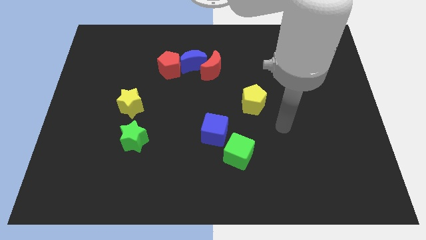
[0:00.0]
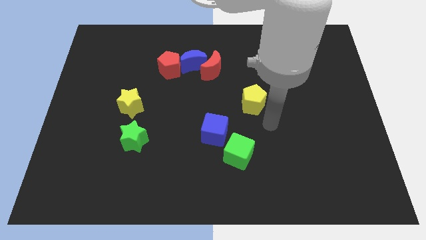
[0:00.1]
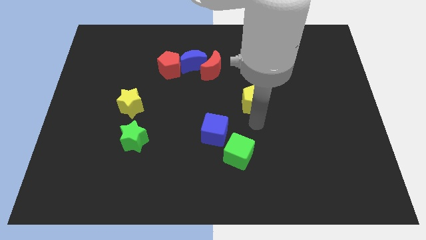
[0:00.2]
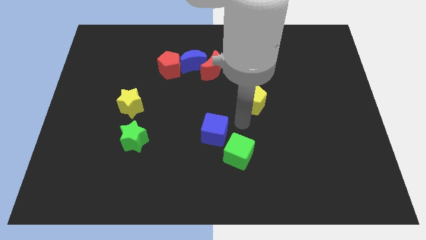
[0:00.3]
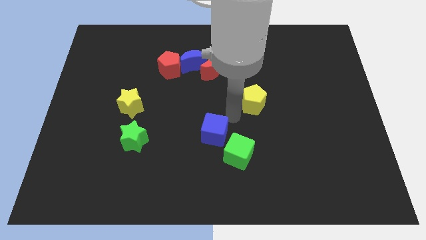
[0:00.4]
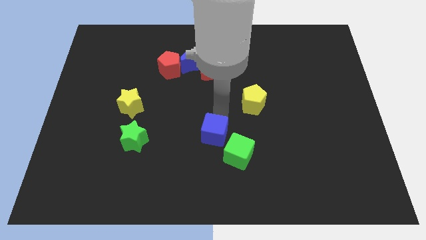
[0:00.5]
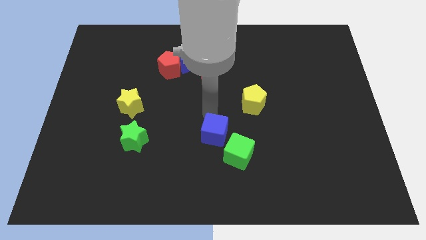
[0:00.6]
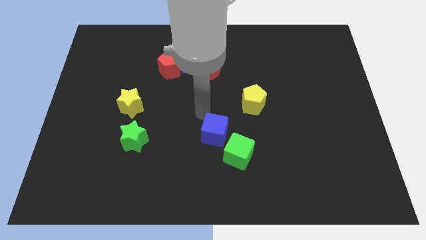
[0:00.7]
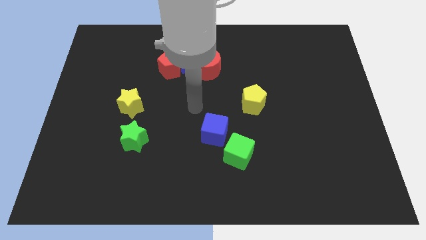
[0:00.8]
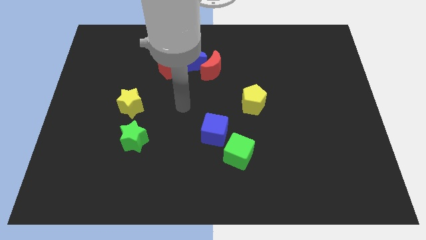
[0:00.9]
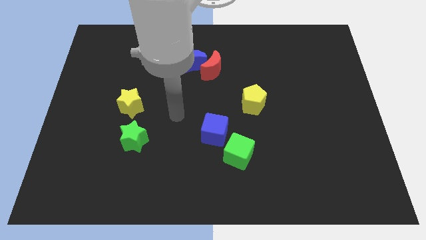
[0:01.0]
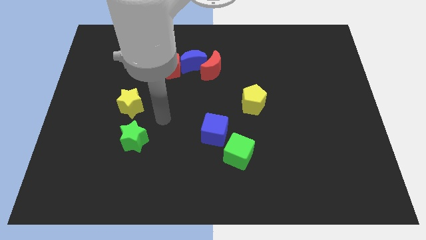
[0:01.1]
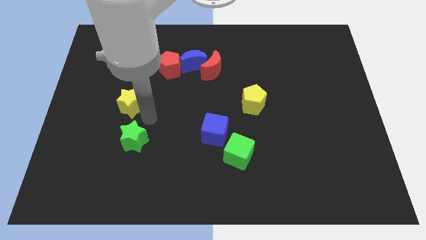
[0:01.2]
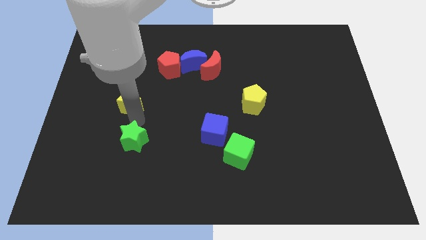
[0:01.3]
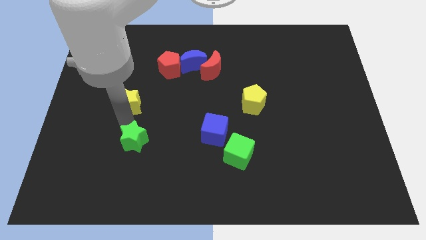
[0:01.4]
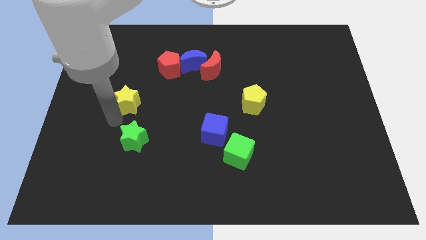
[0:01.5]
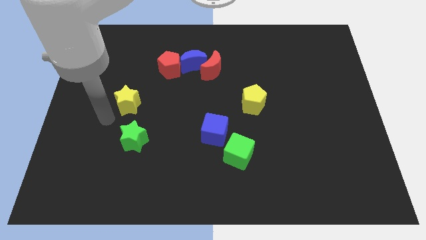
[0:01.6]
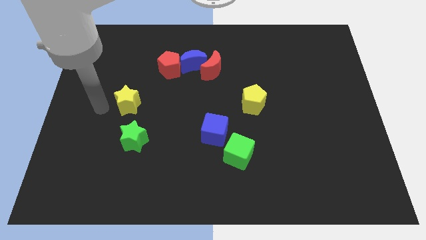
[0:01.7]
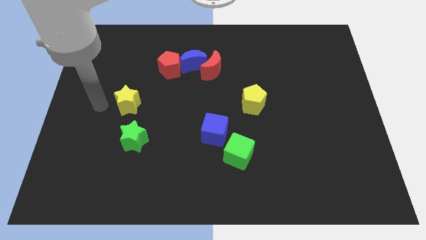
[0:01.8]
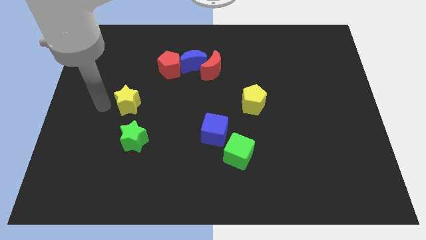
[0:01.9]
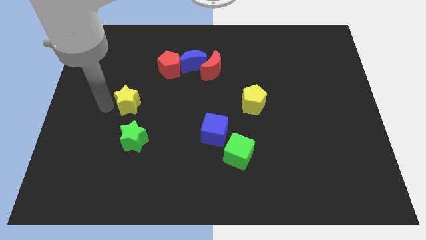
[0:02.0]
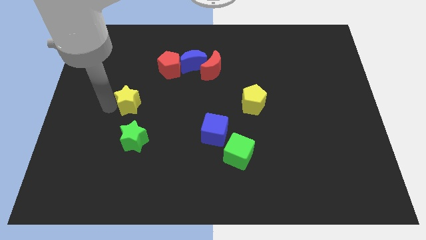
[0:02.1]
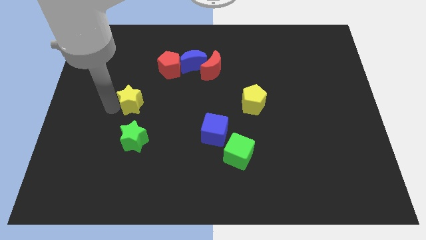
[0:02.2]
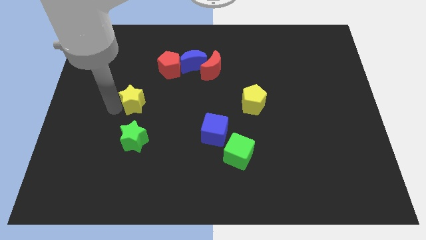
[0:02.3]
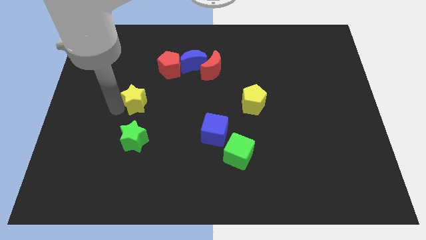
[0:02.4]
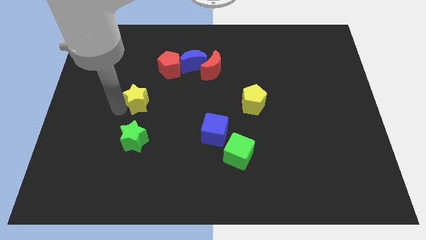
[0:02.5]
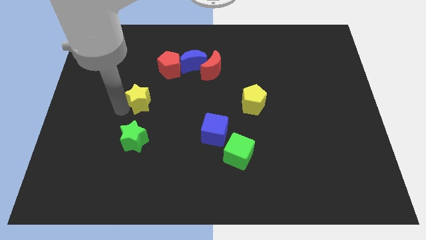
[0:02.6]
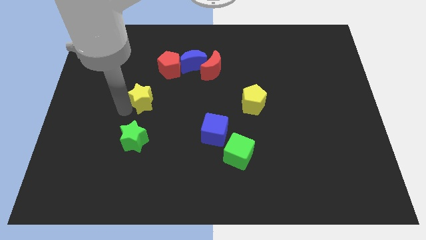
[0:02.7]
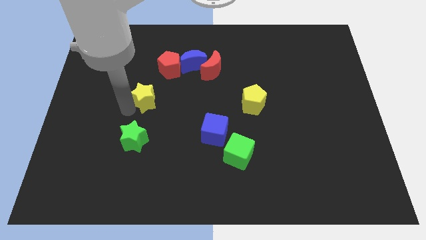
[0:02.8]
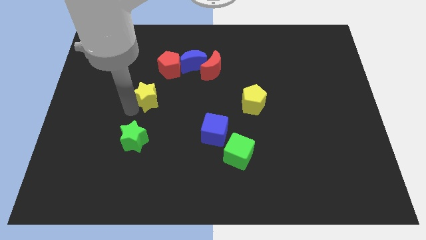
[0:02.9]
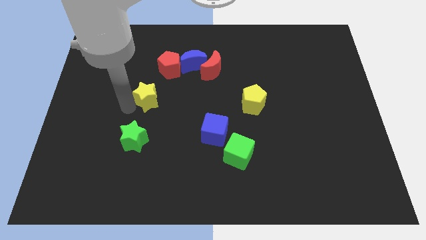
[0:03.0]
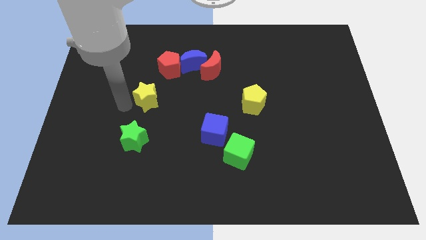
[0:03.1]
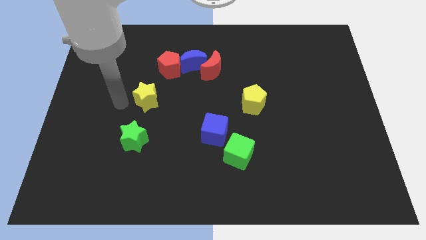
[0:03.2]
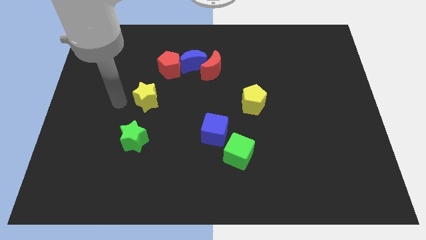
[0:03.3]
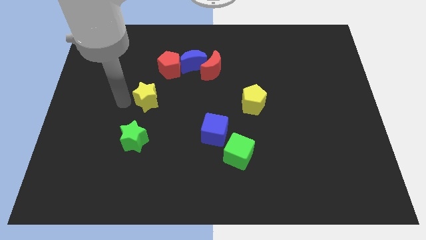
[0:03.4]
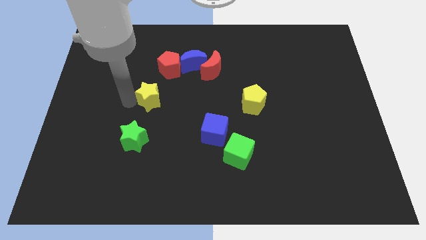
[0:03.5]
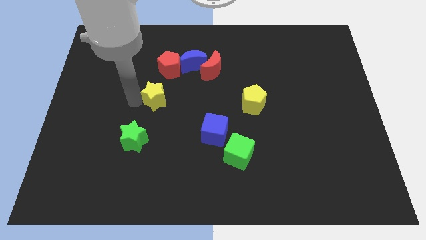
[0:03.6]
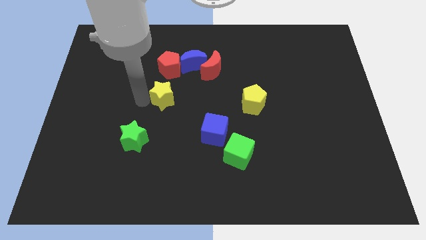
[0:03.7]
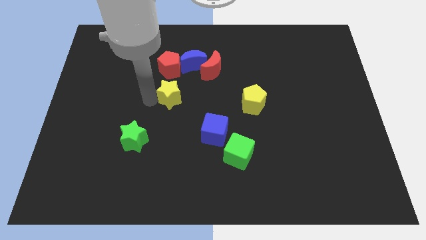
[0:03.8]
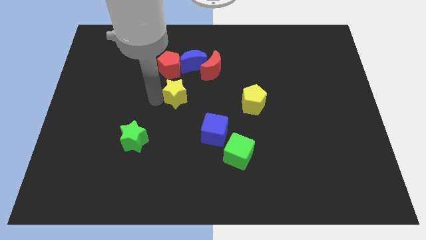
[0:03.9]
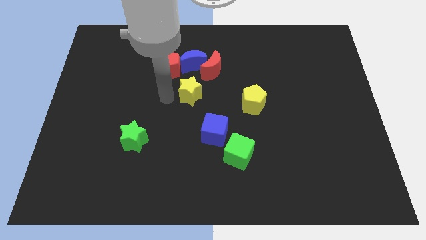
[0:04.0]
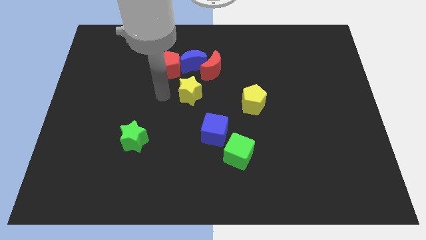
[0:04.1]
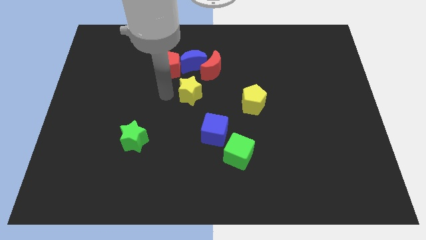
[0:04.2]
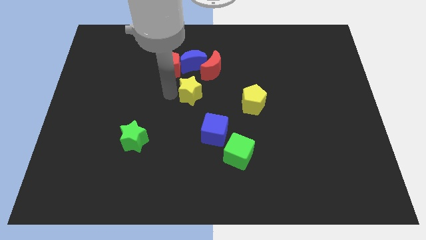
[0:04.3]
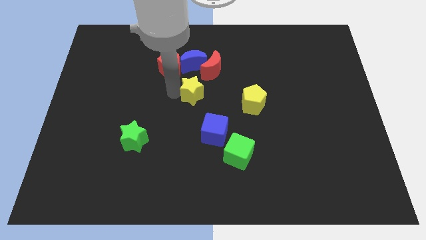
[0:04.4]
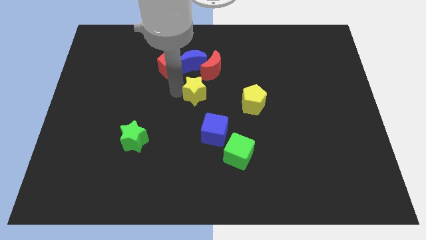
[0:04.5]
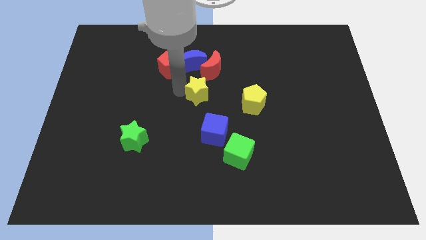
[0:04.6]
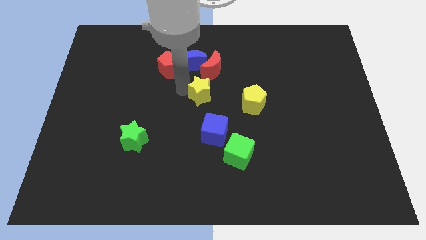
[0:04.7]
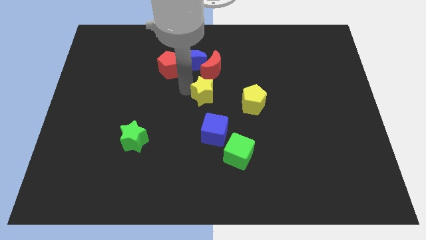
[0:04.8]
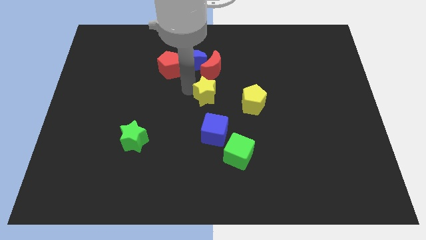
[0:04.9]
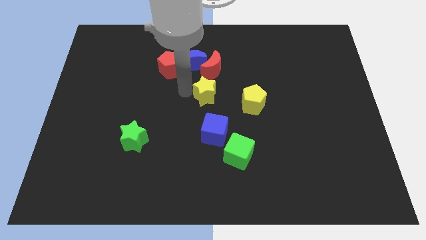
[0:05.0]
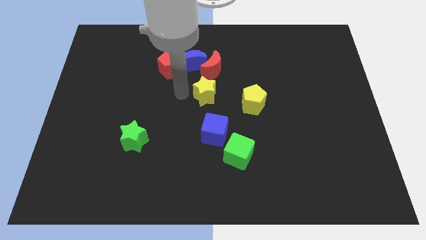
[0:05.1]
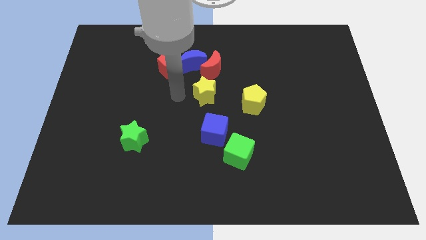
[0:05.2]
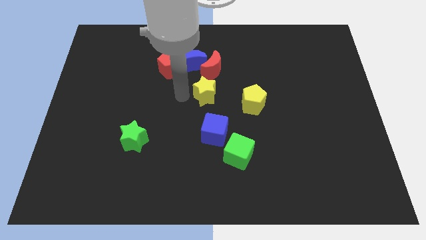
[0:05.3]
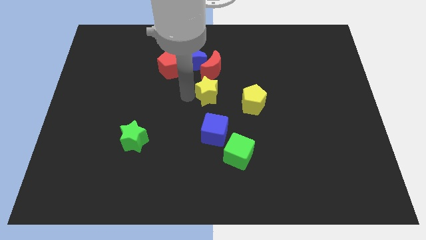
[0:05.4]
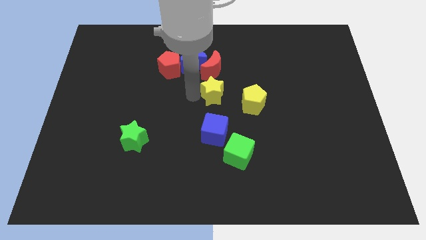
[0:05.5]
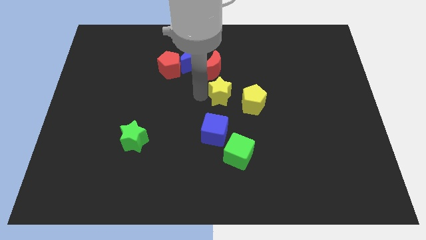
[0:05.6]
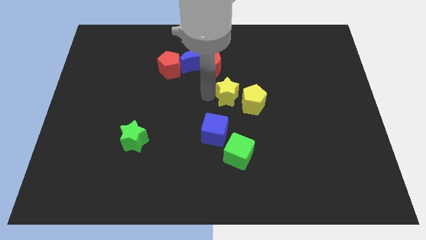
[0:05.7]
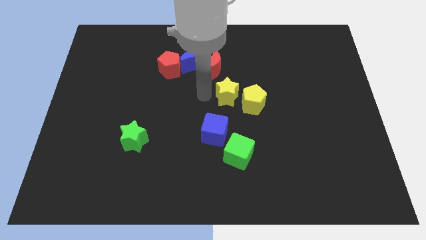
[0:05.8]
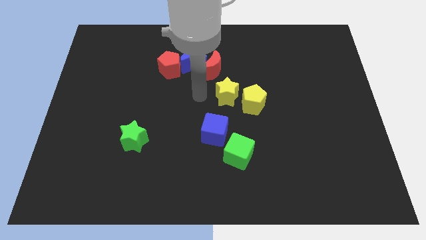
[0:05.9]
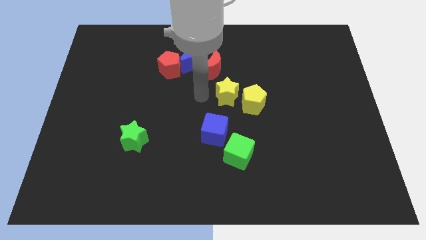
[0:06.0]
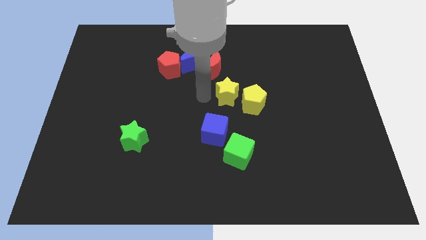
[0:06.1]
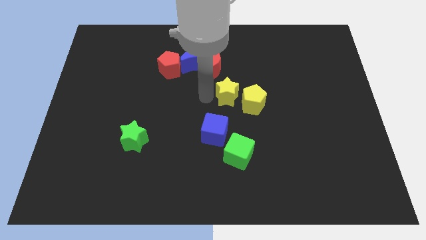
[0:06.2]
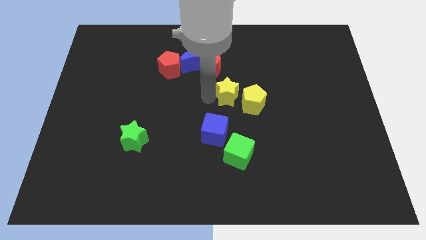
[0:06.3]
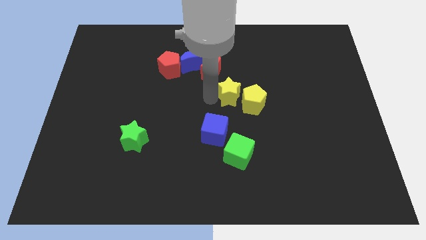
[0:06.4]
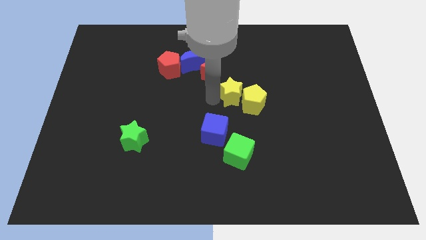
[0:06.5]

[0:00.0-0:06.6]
slide the yellow star to the yellow pentagon

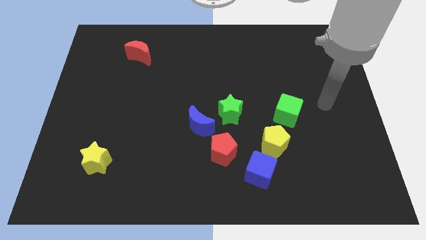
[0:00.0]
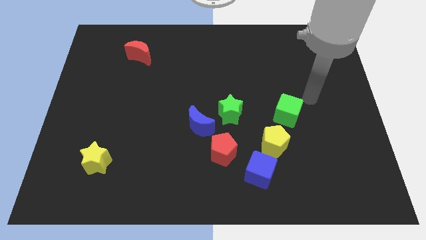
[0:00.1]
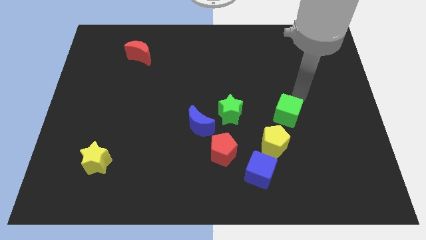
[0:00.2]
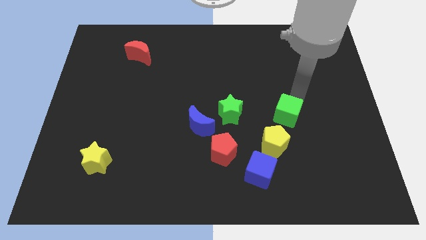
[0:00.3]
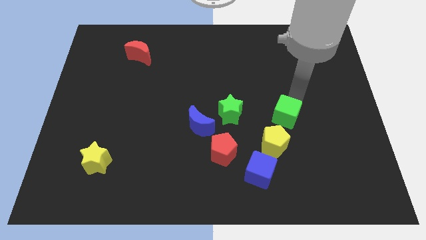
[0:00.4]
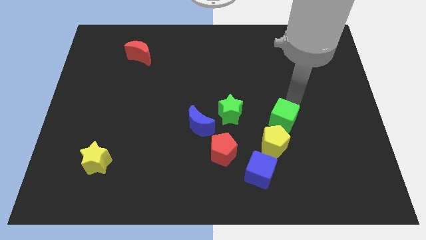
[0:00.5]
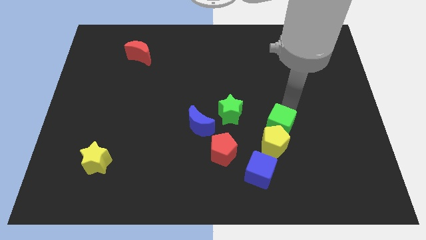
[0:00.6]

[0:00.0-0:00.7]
push the green cube close to the yellow pentagon
